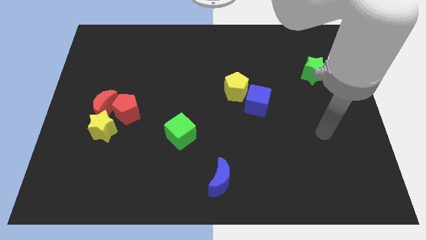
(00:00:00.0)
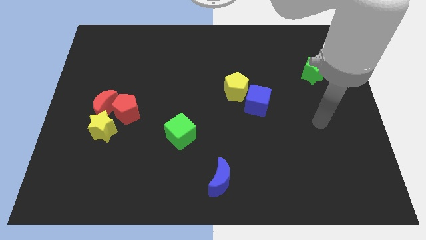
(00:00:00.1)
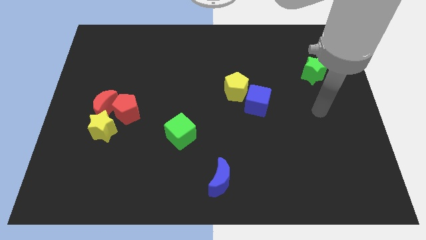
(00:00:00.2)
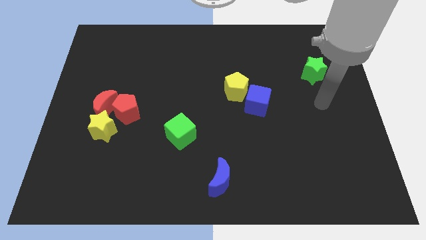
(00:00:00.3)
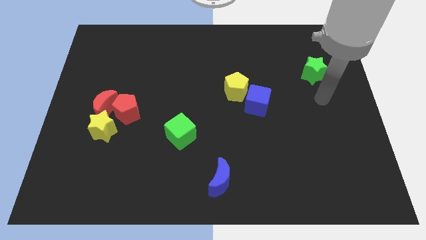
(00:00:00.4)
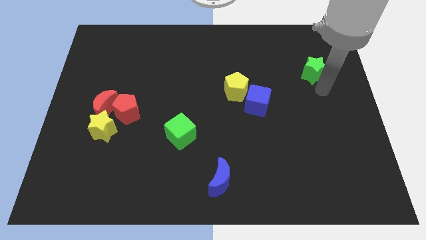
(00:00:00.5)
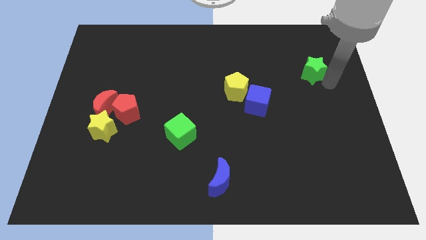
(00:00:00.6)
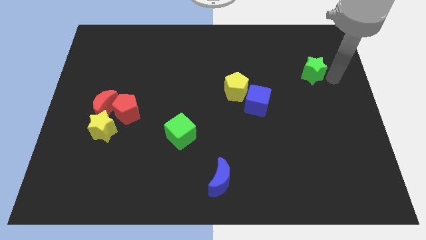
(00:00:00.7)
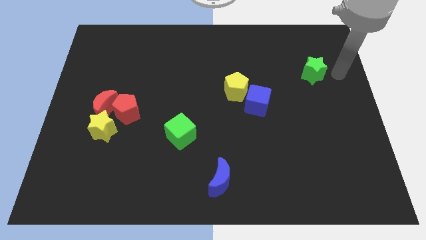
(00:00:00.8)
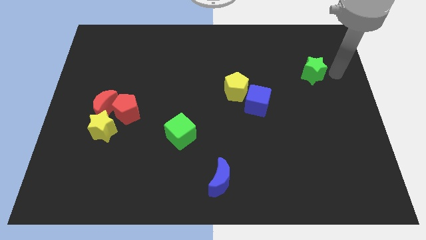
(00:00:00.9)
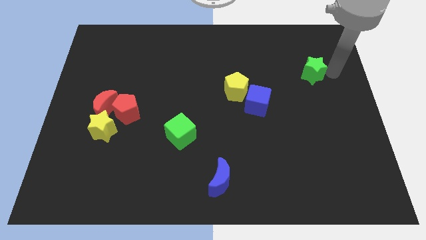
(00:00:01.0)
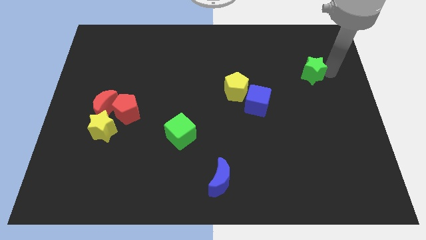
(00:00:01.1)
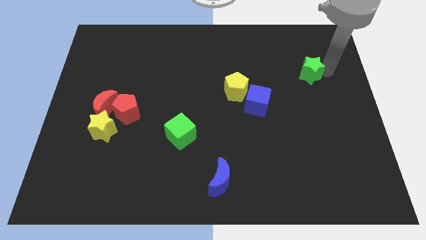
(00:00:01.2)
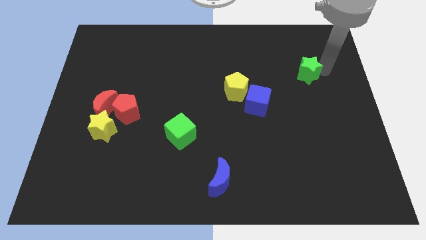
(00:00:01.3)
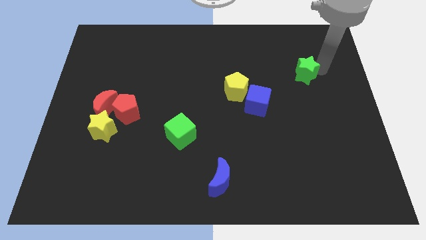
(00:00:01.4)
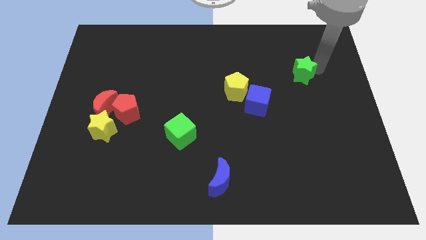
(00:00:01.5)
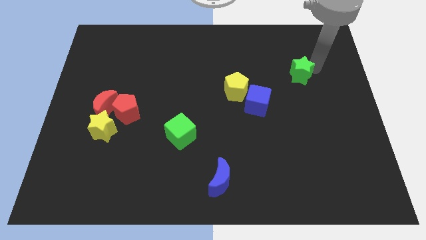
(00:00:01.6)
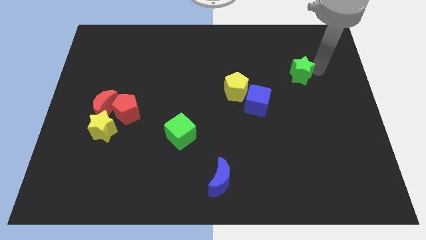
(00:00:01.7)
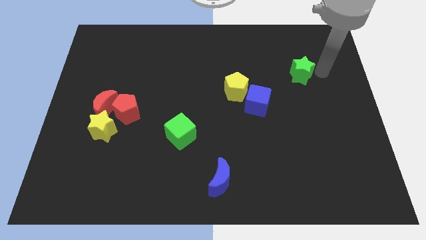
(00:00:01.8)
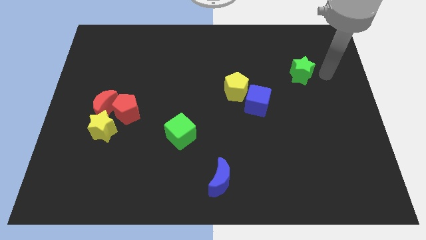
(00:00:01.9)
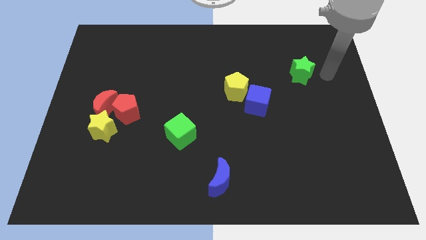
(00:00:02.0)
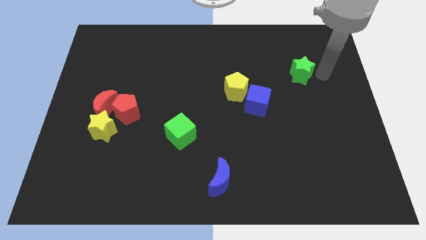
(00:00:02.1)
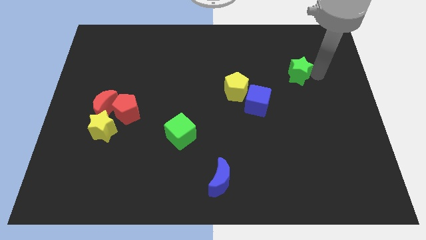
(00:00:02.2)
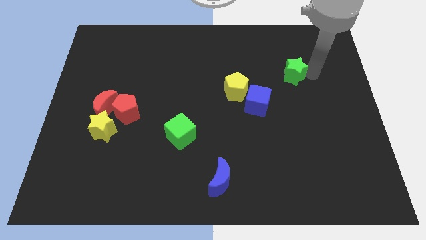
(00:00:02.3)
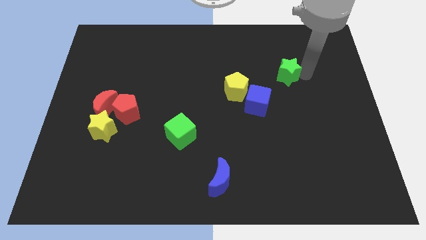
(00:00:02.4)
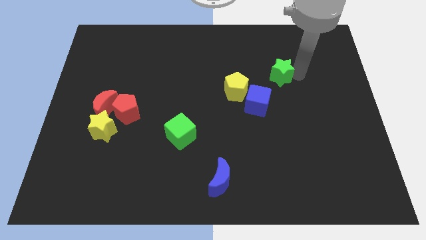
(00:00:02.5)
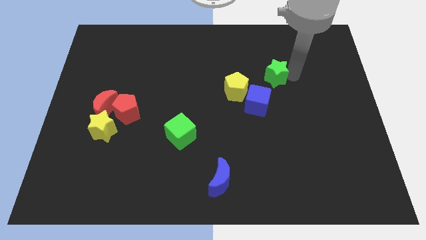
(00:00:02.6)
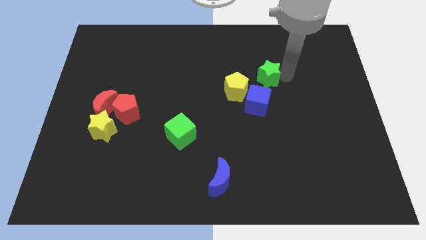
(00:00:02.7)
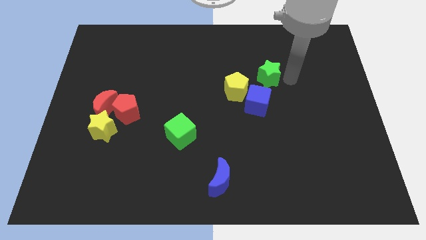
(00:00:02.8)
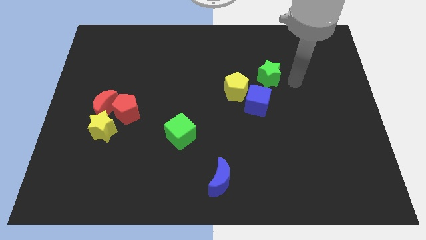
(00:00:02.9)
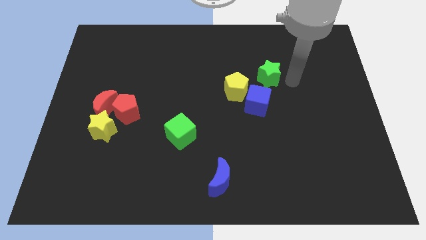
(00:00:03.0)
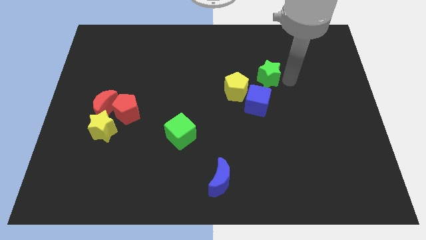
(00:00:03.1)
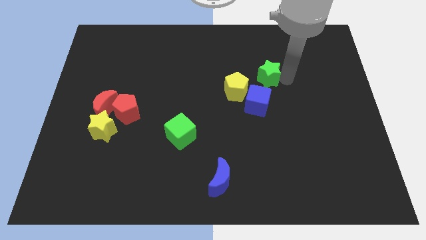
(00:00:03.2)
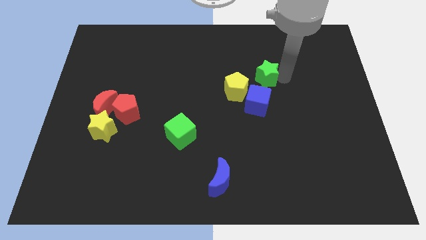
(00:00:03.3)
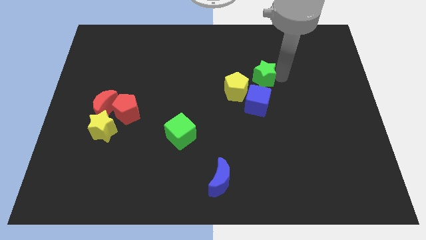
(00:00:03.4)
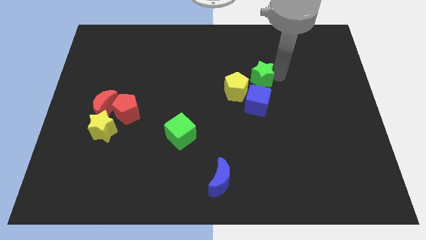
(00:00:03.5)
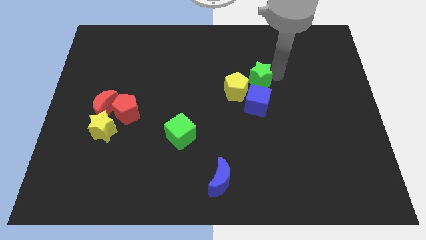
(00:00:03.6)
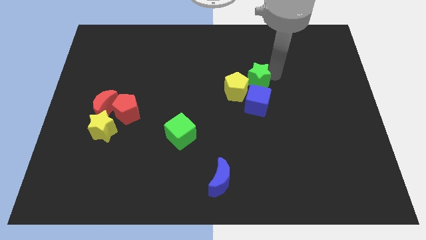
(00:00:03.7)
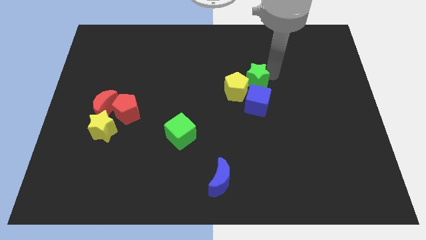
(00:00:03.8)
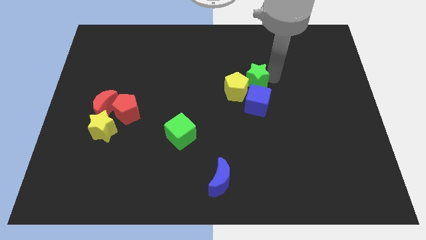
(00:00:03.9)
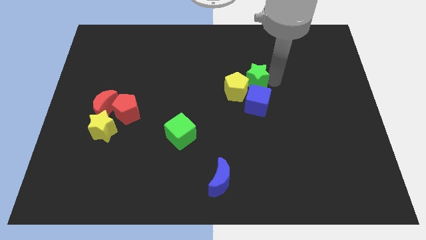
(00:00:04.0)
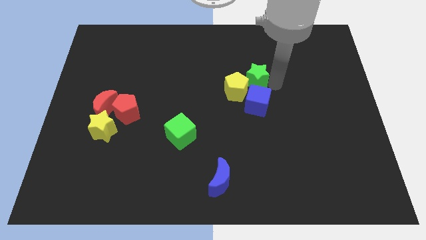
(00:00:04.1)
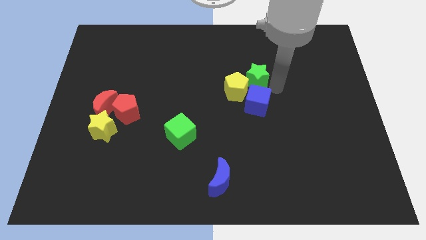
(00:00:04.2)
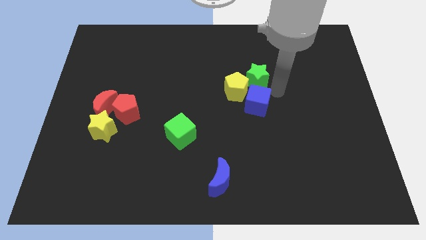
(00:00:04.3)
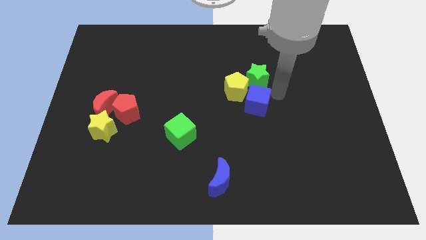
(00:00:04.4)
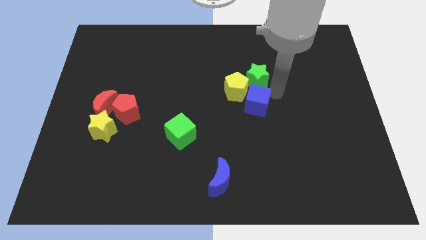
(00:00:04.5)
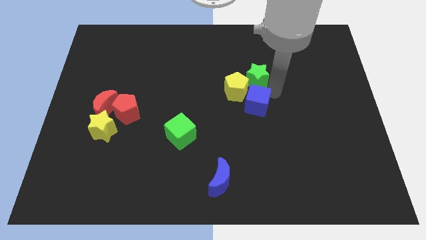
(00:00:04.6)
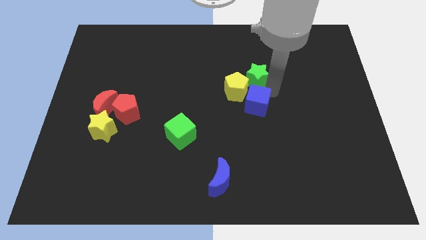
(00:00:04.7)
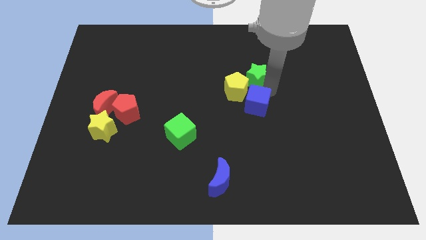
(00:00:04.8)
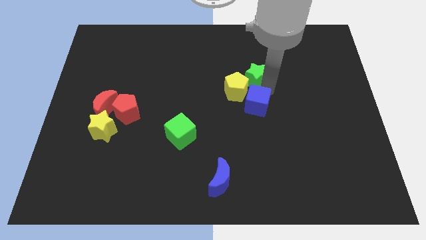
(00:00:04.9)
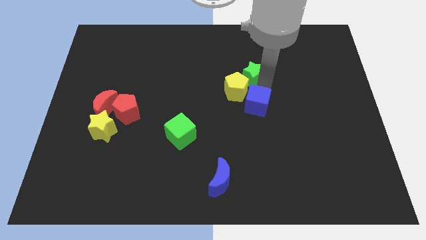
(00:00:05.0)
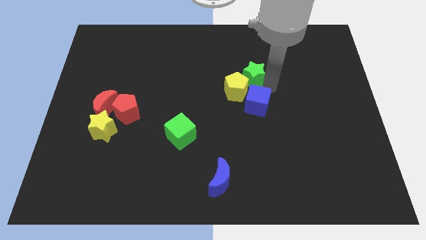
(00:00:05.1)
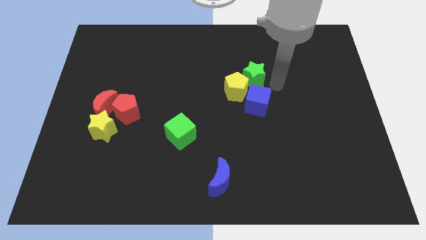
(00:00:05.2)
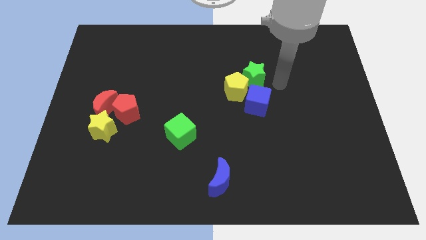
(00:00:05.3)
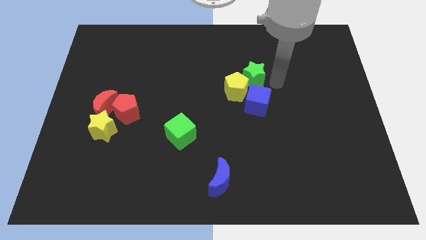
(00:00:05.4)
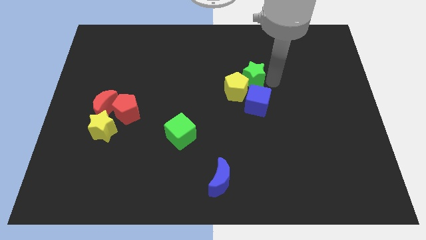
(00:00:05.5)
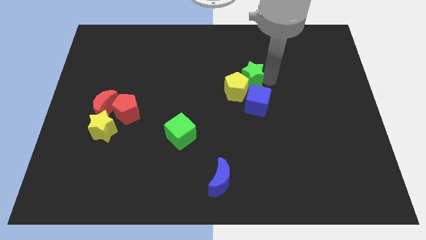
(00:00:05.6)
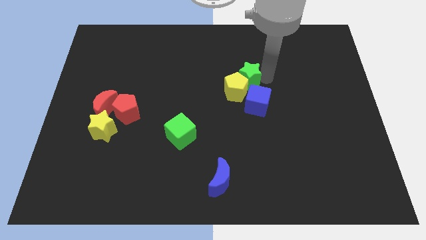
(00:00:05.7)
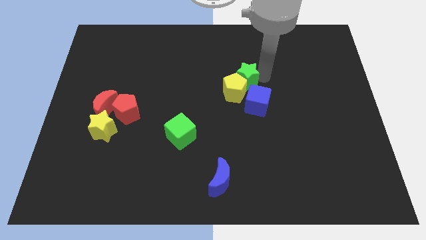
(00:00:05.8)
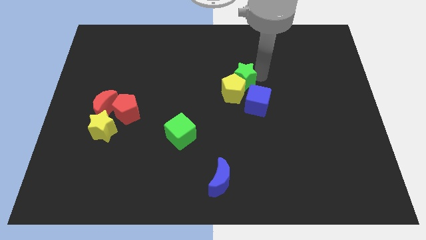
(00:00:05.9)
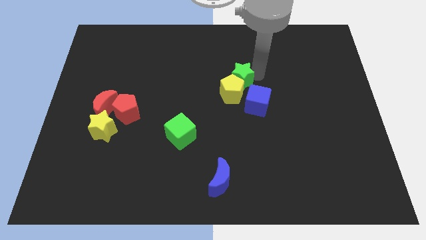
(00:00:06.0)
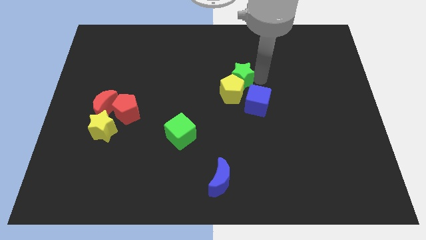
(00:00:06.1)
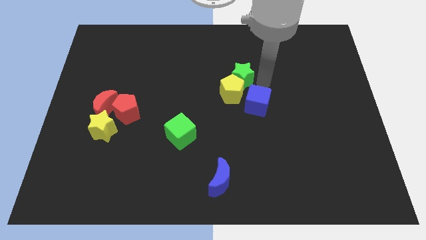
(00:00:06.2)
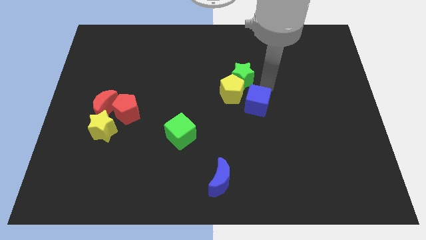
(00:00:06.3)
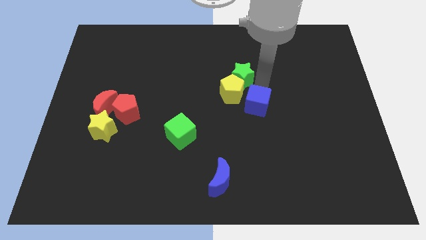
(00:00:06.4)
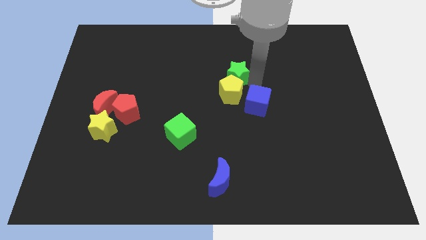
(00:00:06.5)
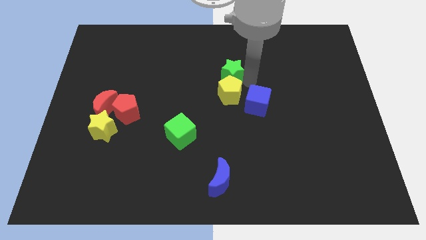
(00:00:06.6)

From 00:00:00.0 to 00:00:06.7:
move the green star to the left

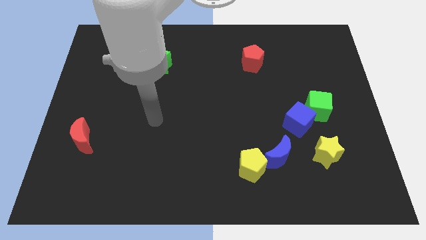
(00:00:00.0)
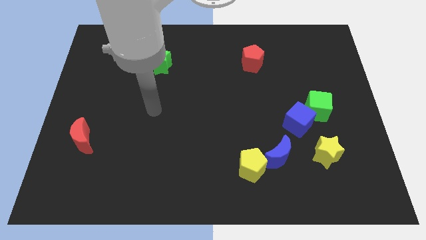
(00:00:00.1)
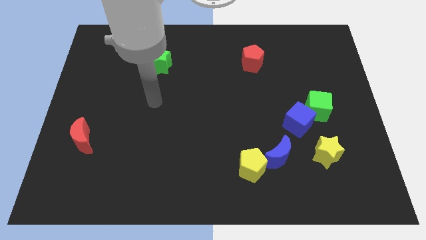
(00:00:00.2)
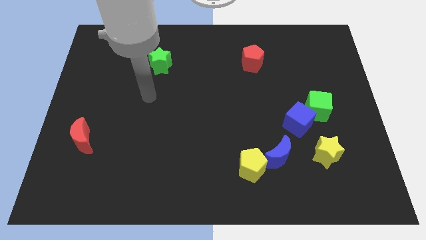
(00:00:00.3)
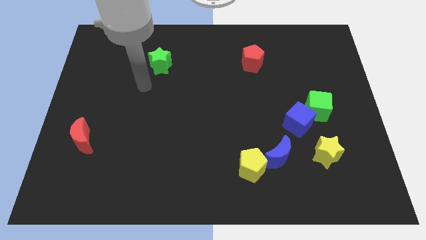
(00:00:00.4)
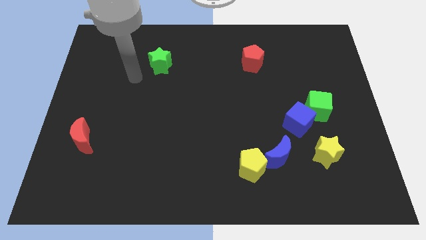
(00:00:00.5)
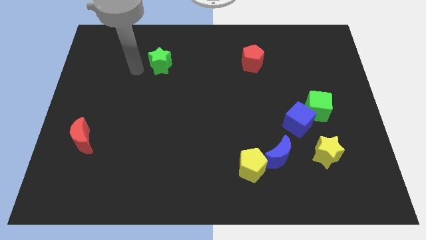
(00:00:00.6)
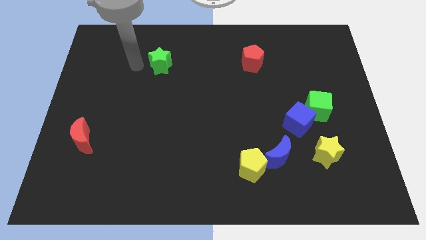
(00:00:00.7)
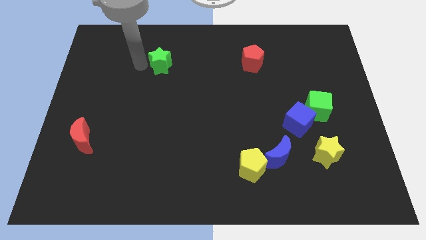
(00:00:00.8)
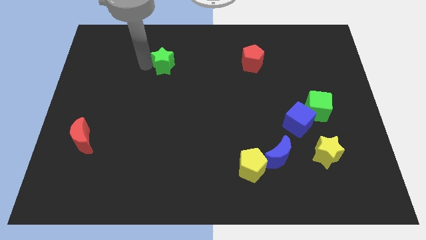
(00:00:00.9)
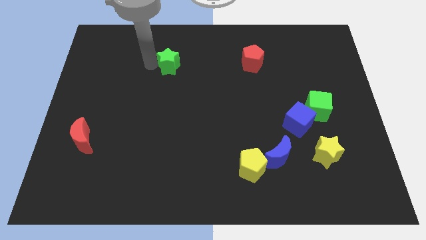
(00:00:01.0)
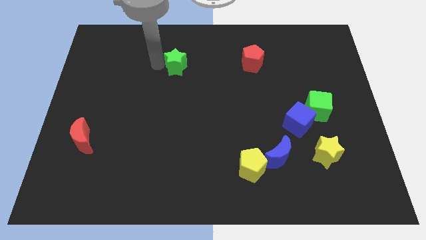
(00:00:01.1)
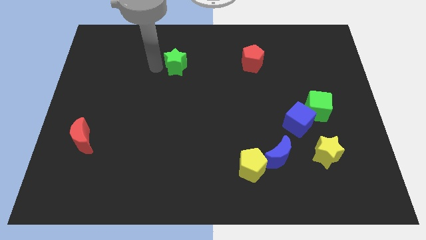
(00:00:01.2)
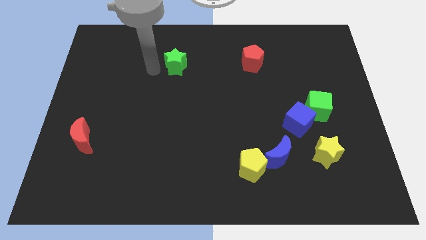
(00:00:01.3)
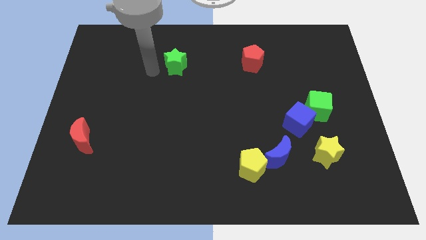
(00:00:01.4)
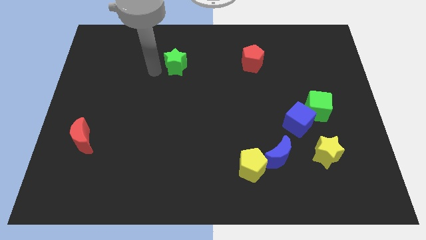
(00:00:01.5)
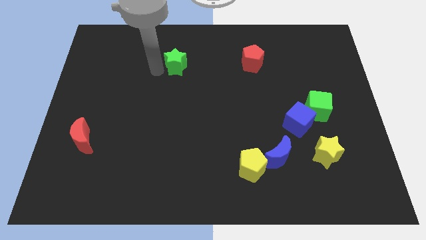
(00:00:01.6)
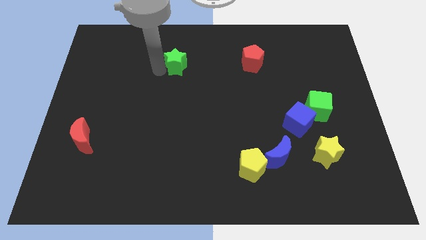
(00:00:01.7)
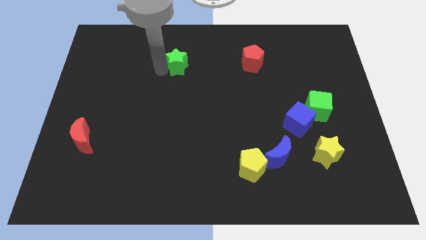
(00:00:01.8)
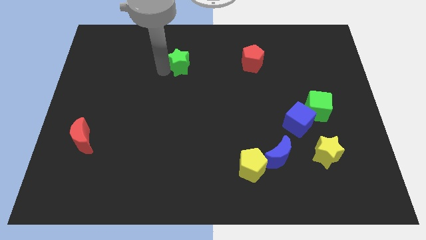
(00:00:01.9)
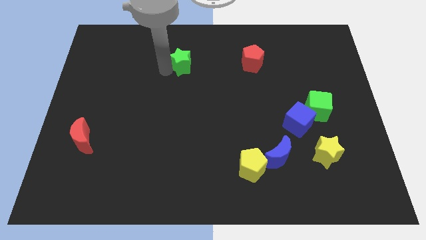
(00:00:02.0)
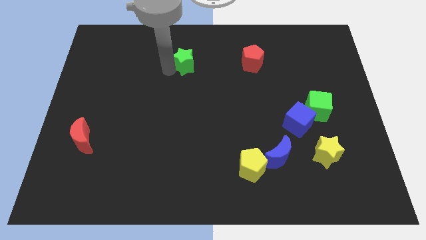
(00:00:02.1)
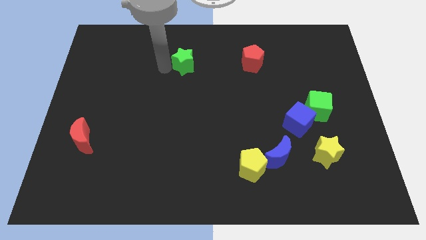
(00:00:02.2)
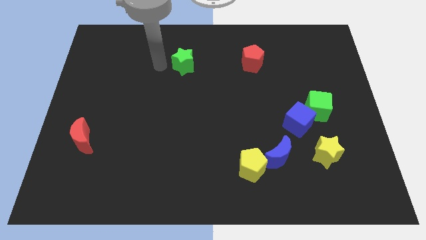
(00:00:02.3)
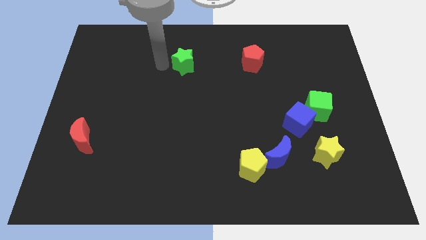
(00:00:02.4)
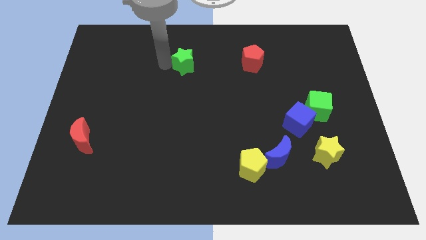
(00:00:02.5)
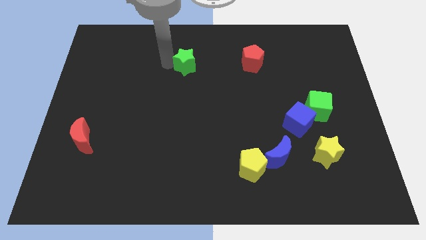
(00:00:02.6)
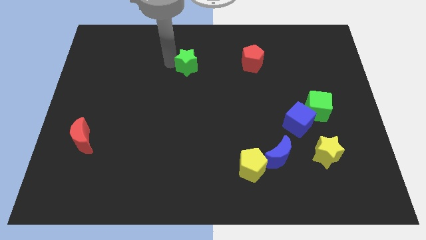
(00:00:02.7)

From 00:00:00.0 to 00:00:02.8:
move the green star slightly to the right
